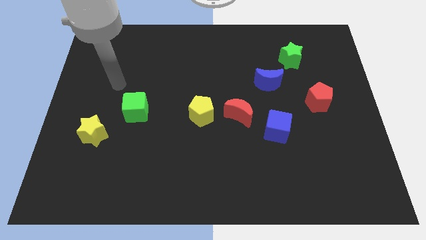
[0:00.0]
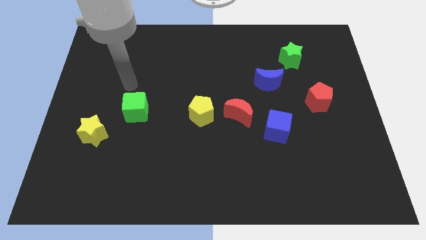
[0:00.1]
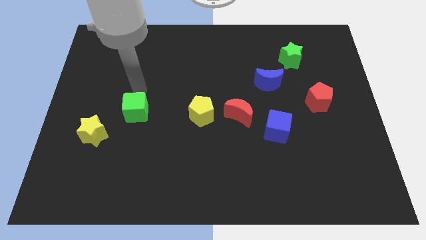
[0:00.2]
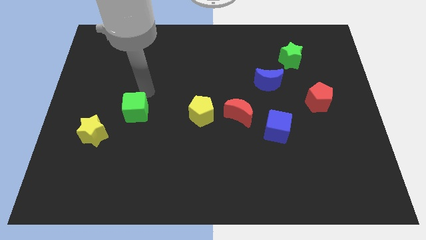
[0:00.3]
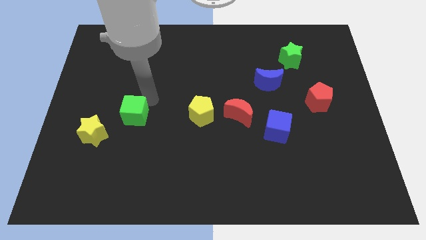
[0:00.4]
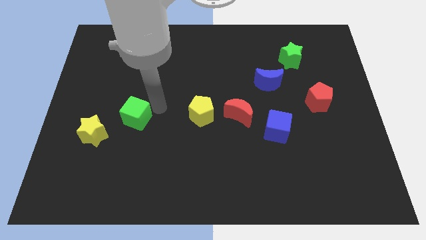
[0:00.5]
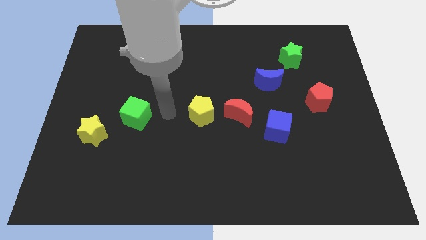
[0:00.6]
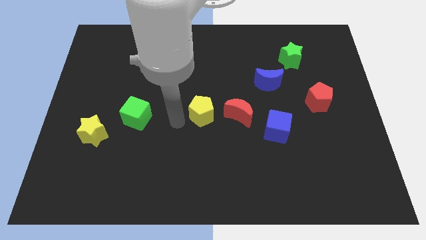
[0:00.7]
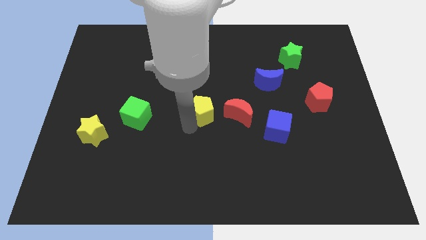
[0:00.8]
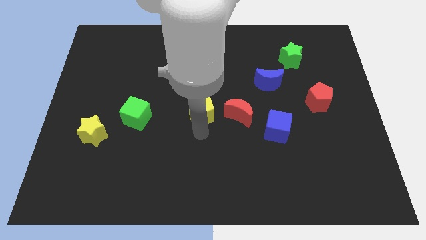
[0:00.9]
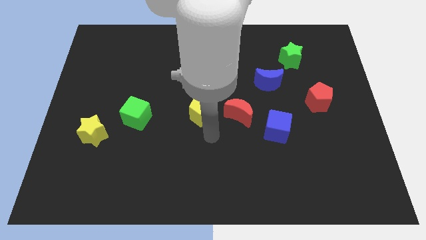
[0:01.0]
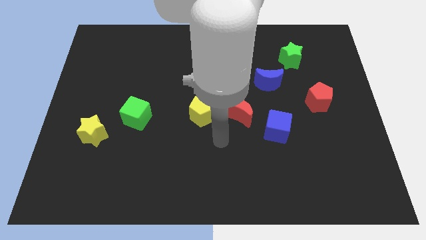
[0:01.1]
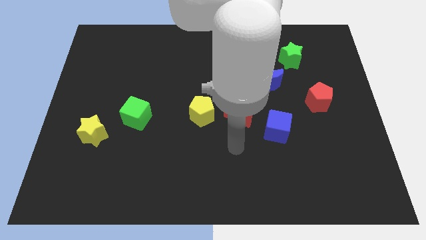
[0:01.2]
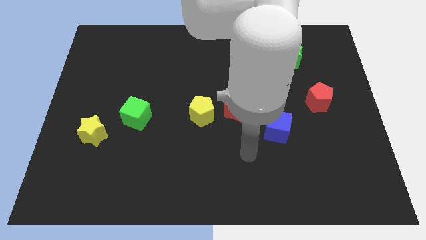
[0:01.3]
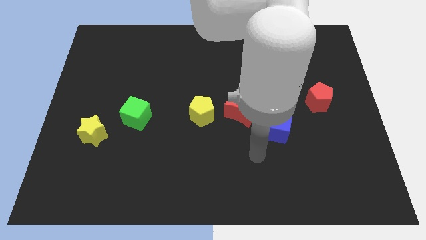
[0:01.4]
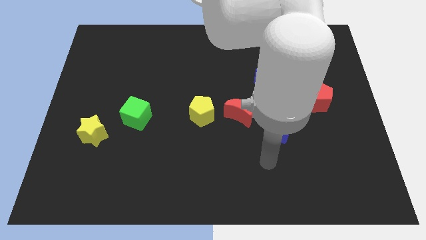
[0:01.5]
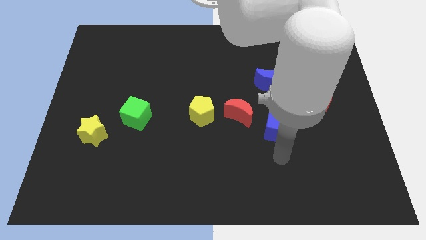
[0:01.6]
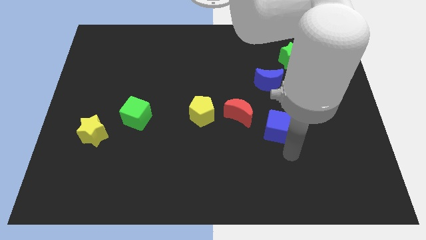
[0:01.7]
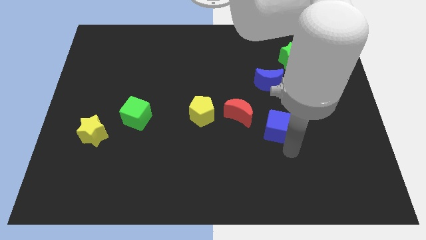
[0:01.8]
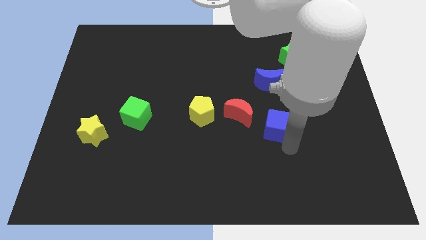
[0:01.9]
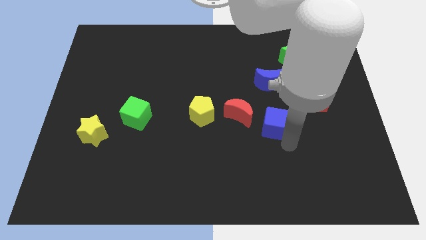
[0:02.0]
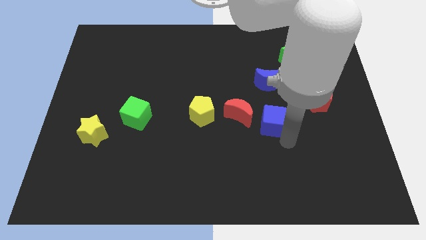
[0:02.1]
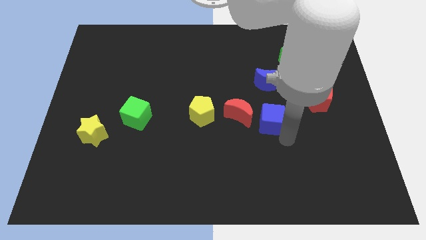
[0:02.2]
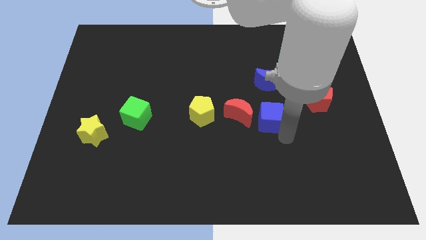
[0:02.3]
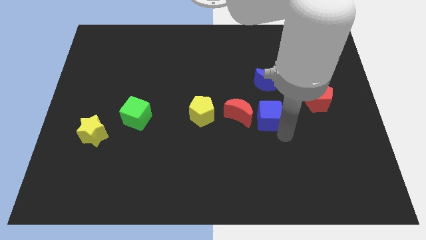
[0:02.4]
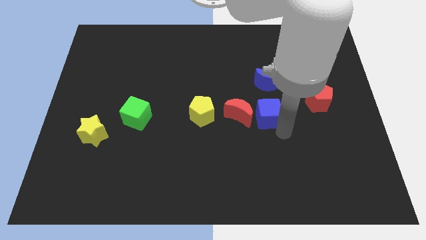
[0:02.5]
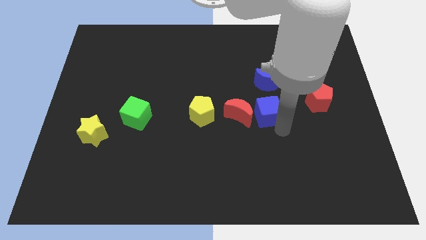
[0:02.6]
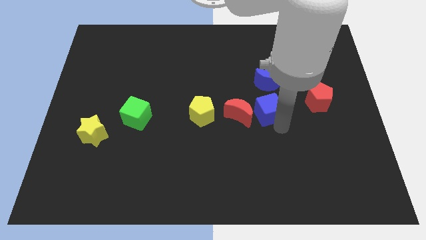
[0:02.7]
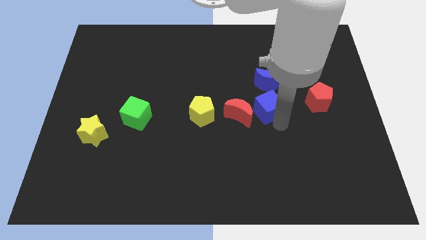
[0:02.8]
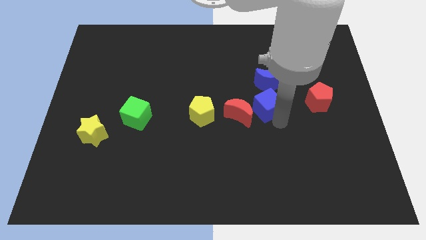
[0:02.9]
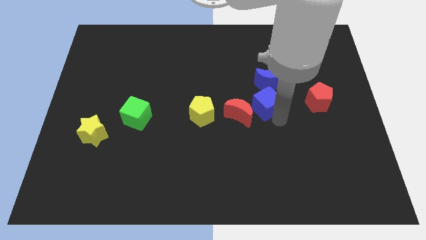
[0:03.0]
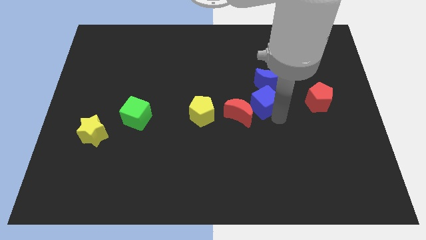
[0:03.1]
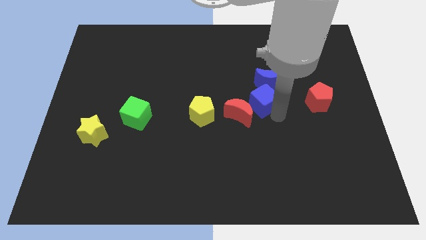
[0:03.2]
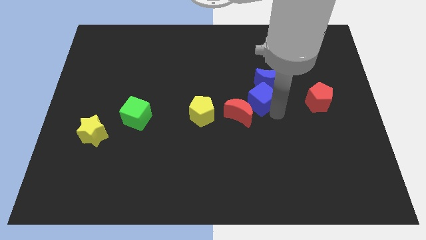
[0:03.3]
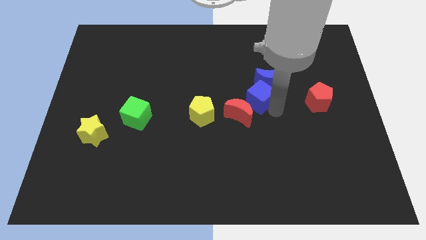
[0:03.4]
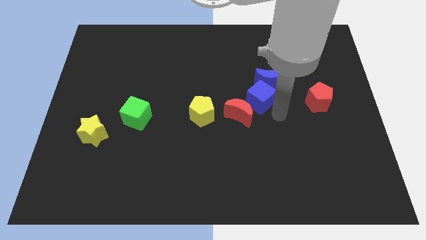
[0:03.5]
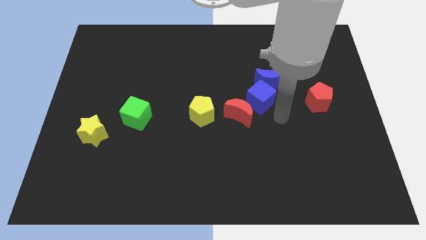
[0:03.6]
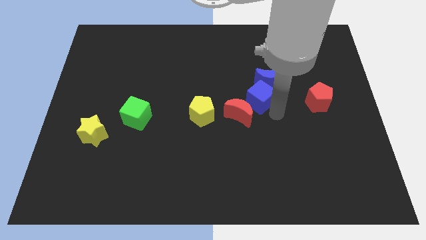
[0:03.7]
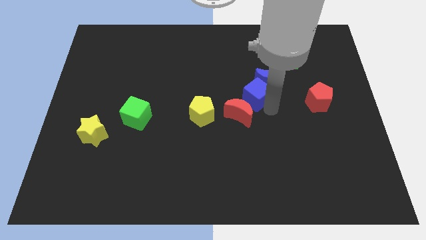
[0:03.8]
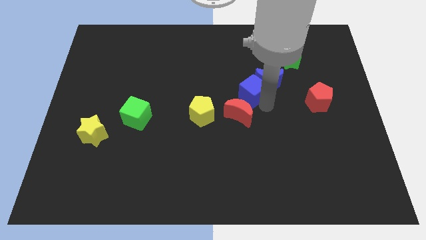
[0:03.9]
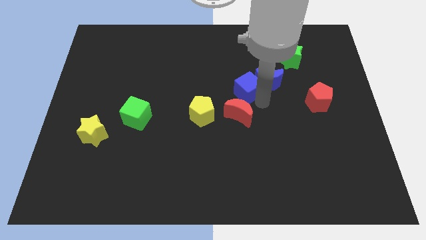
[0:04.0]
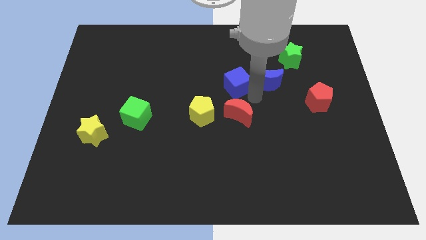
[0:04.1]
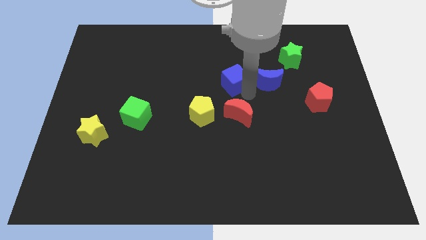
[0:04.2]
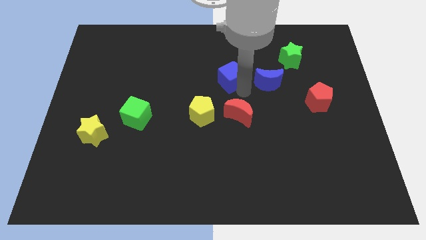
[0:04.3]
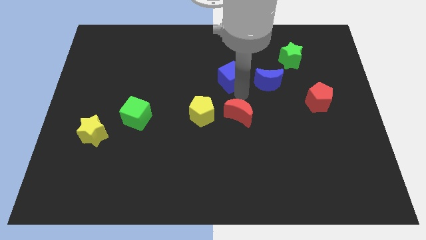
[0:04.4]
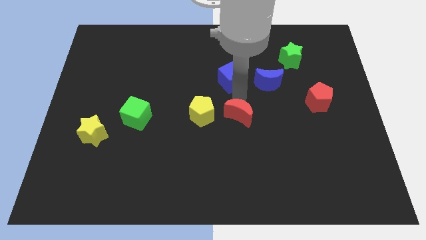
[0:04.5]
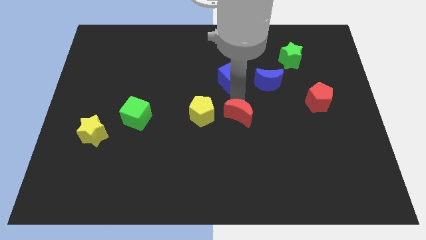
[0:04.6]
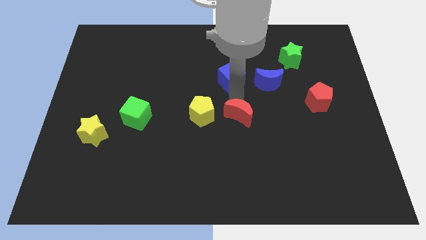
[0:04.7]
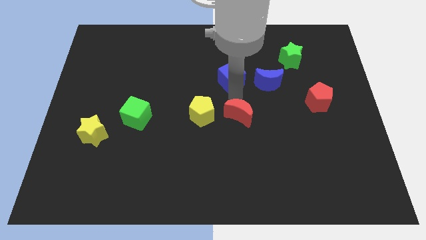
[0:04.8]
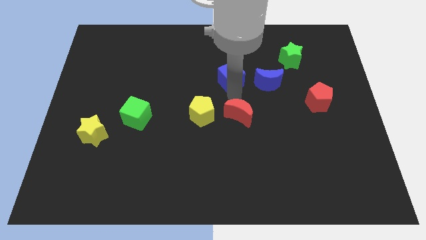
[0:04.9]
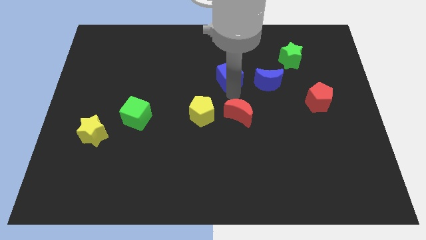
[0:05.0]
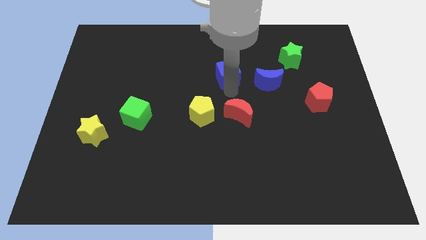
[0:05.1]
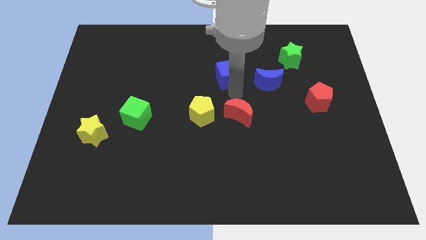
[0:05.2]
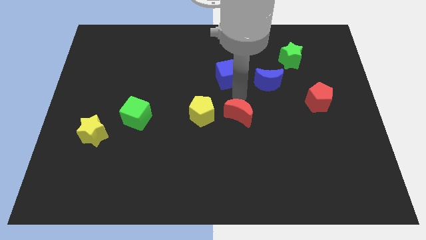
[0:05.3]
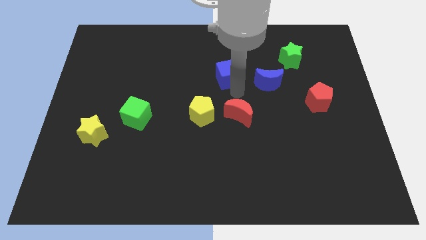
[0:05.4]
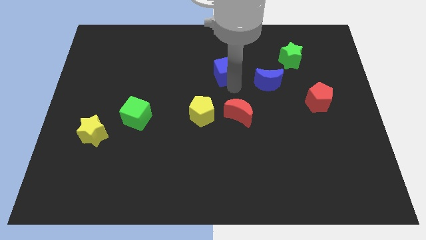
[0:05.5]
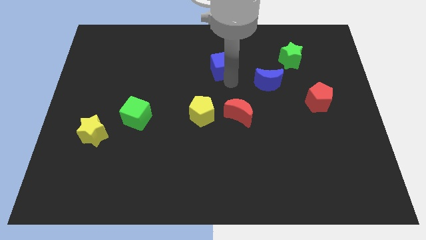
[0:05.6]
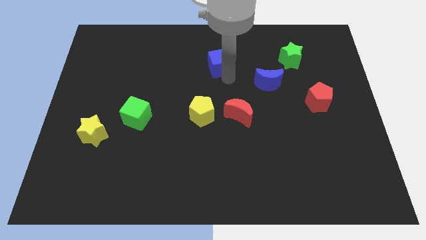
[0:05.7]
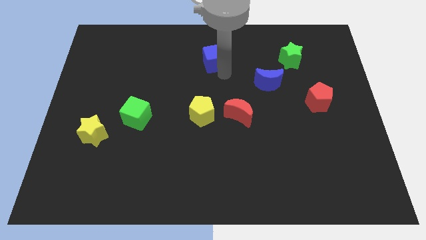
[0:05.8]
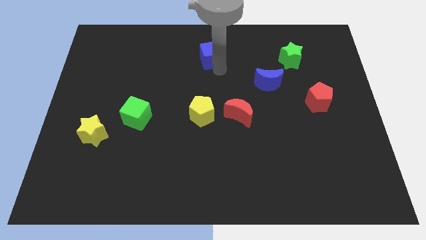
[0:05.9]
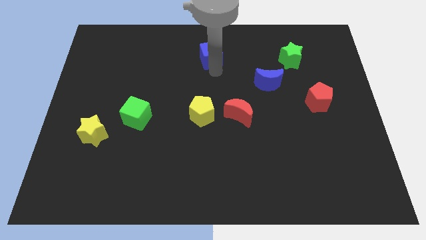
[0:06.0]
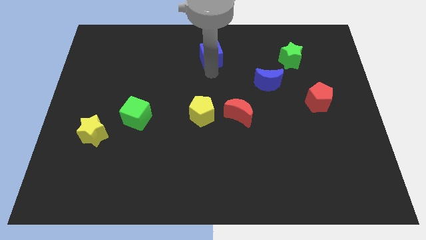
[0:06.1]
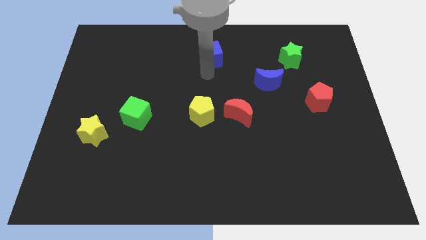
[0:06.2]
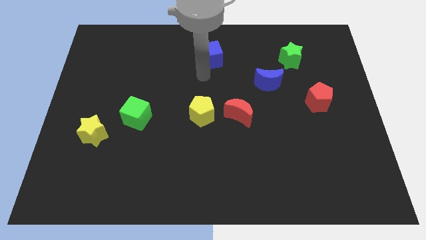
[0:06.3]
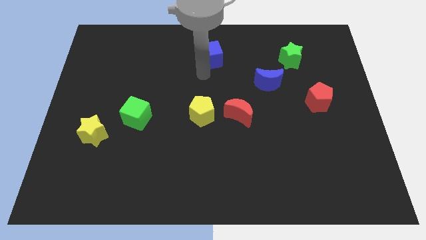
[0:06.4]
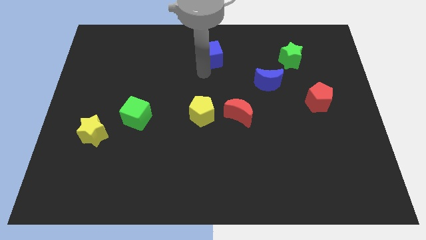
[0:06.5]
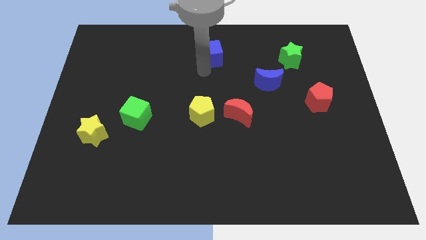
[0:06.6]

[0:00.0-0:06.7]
push the blue cube to the towards your base
